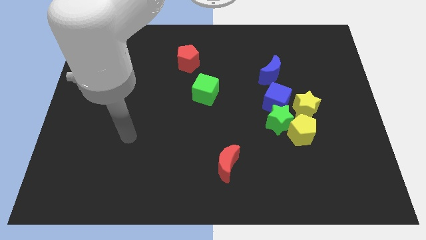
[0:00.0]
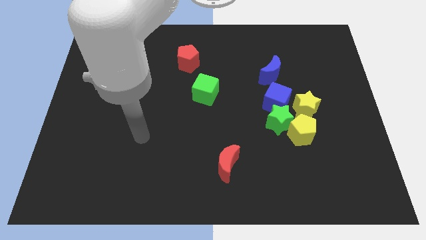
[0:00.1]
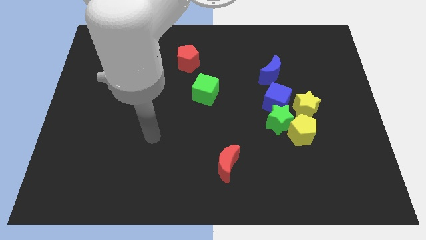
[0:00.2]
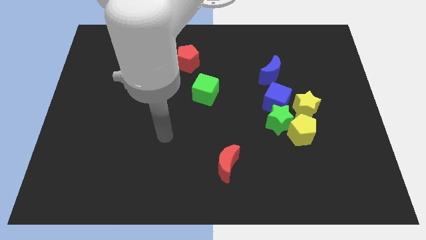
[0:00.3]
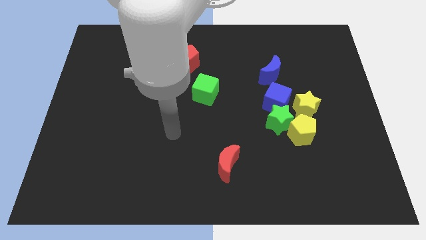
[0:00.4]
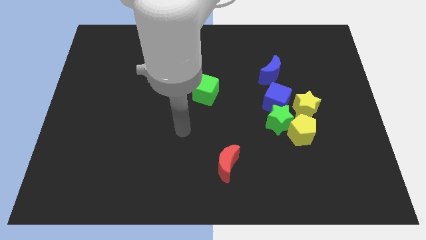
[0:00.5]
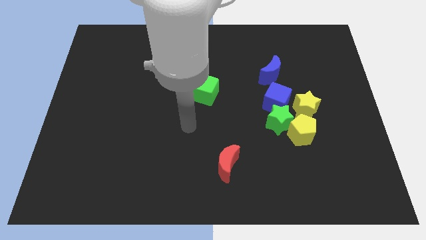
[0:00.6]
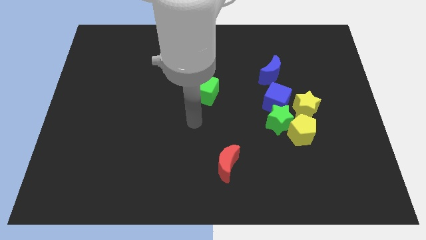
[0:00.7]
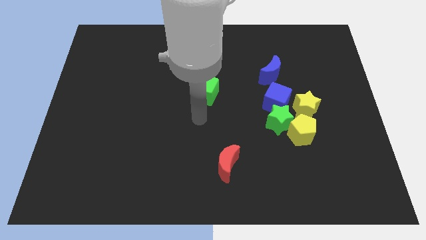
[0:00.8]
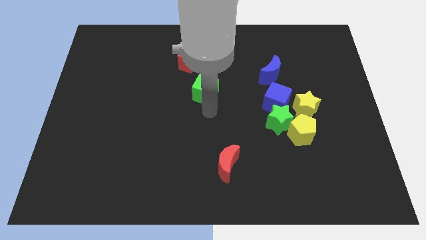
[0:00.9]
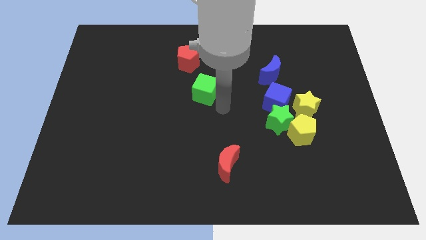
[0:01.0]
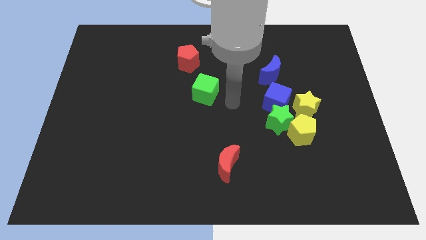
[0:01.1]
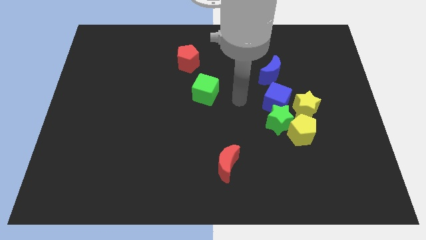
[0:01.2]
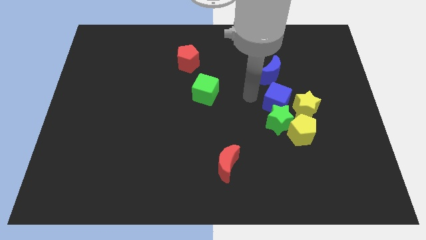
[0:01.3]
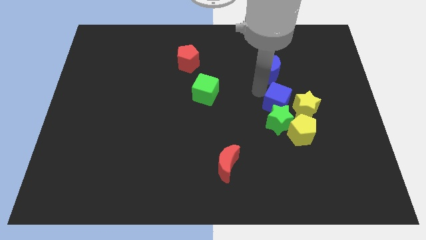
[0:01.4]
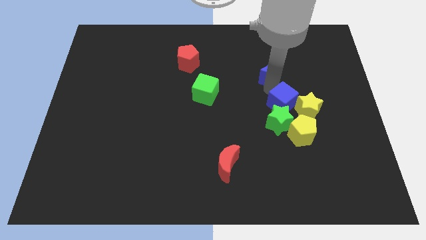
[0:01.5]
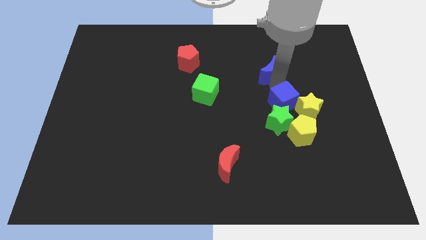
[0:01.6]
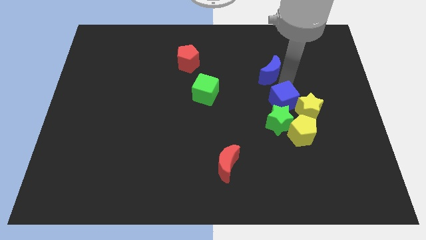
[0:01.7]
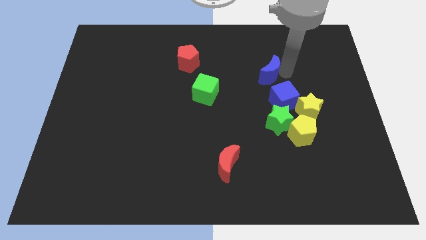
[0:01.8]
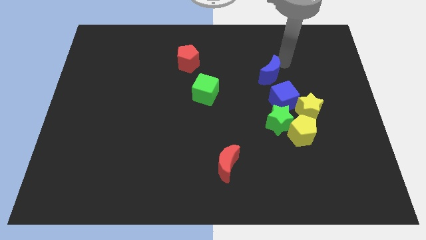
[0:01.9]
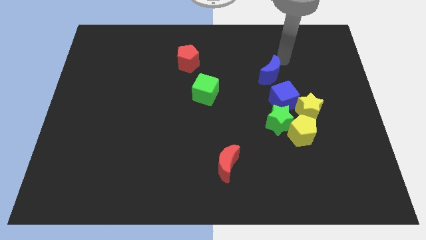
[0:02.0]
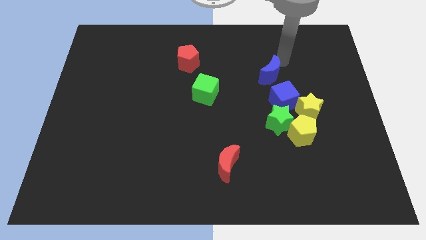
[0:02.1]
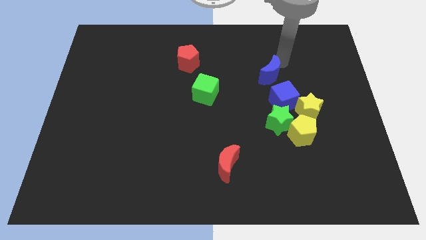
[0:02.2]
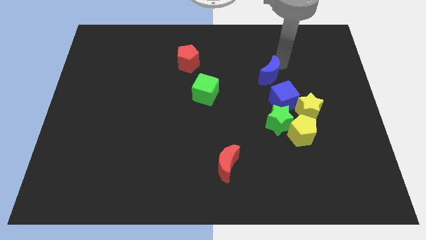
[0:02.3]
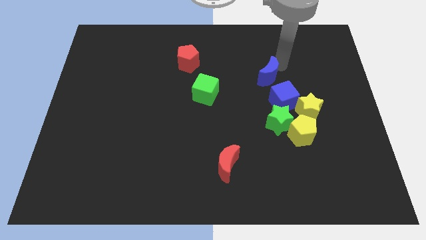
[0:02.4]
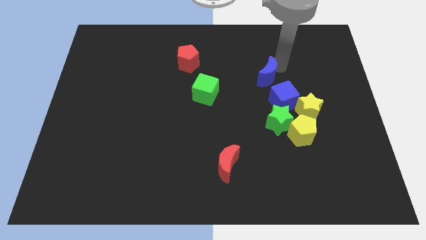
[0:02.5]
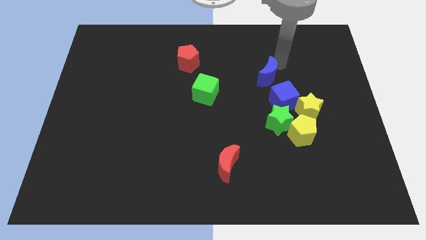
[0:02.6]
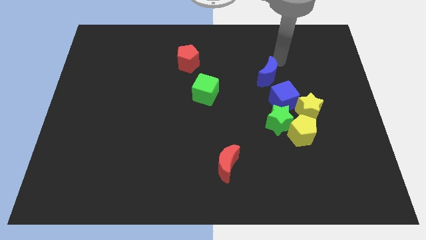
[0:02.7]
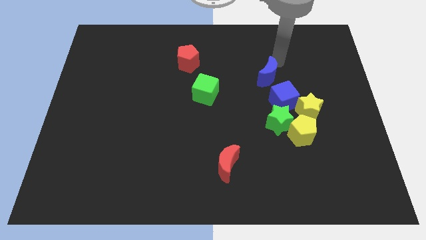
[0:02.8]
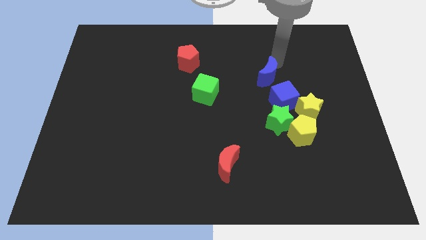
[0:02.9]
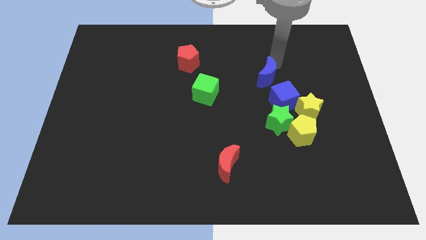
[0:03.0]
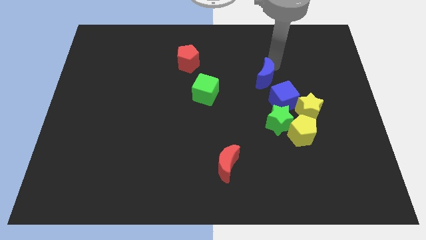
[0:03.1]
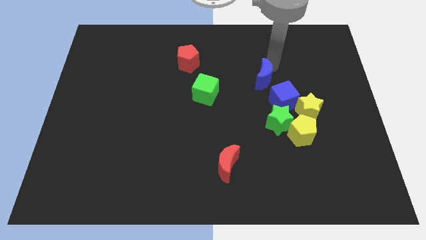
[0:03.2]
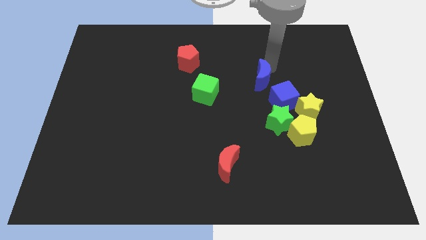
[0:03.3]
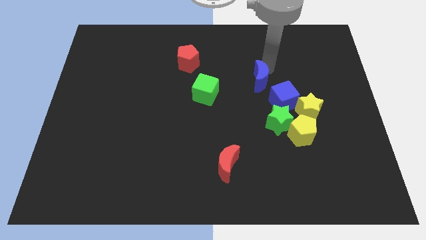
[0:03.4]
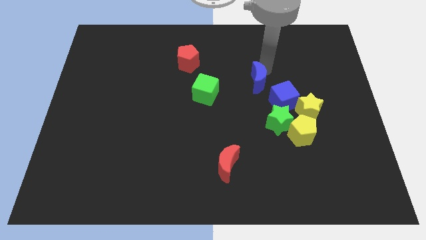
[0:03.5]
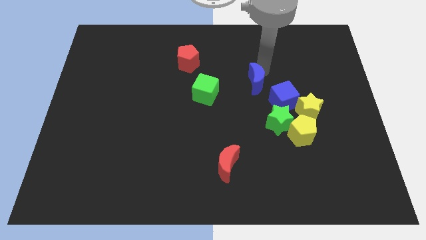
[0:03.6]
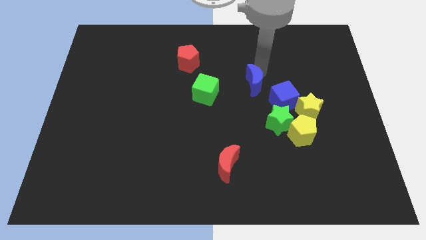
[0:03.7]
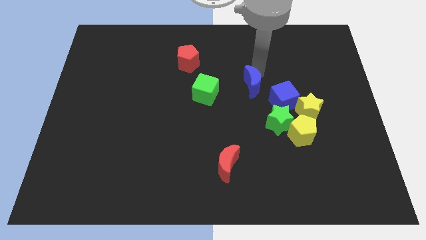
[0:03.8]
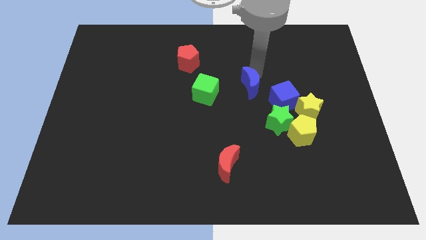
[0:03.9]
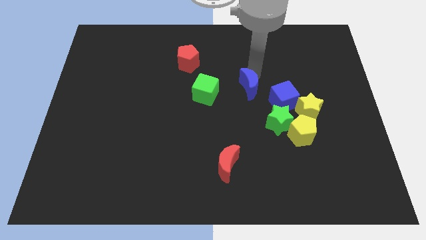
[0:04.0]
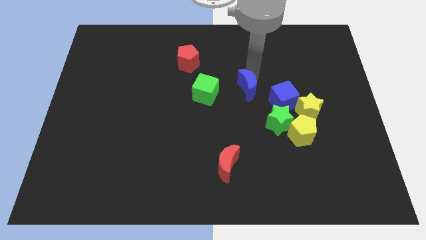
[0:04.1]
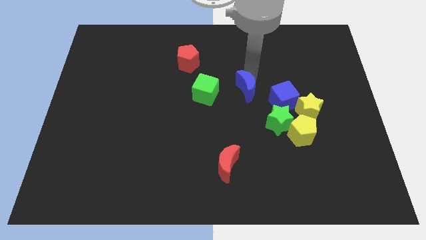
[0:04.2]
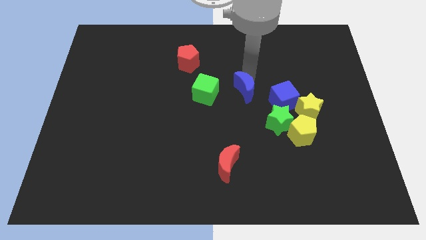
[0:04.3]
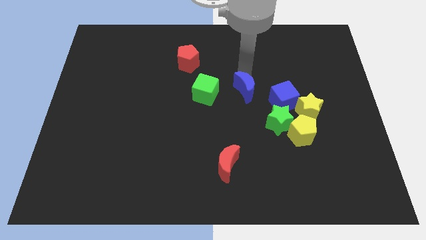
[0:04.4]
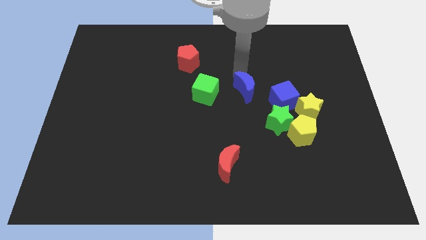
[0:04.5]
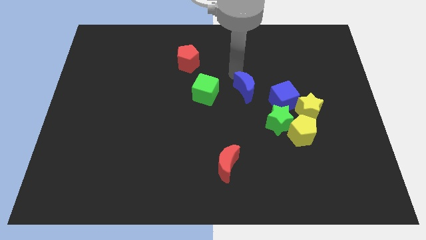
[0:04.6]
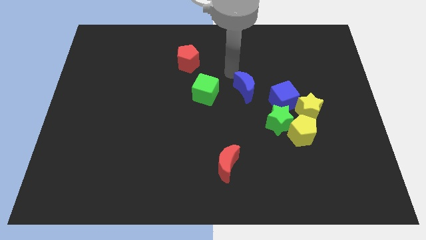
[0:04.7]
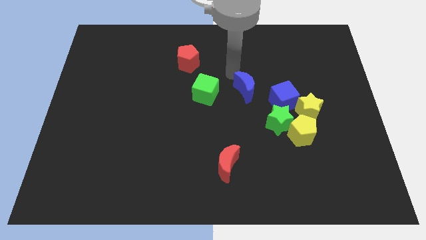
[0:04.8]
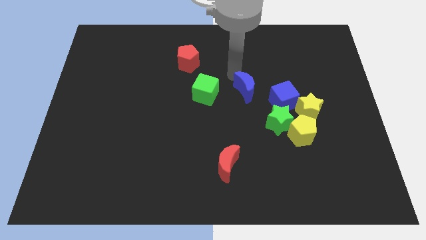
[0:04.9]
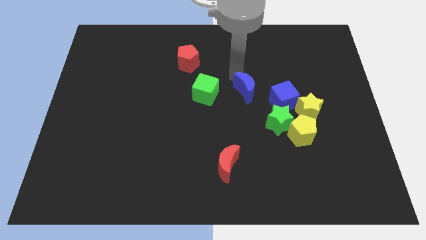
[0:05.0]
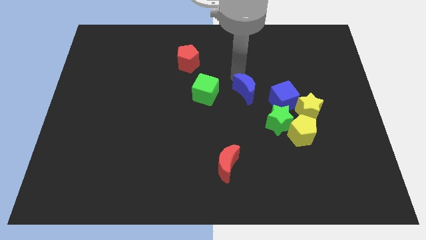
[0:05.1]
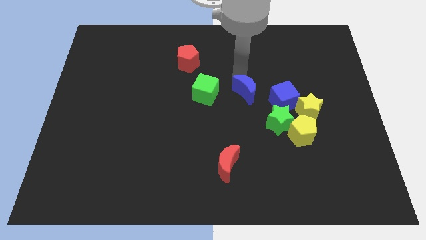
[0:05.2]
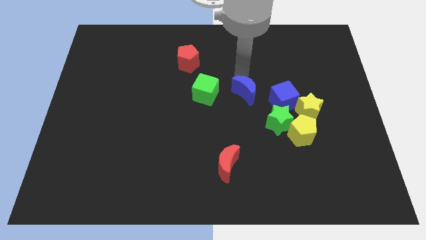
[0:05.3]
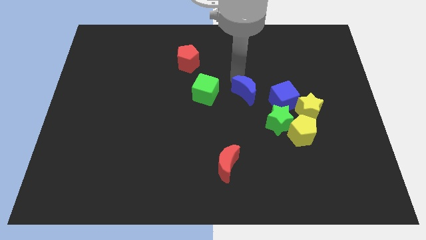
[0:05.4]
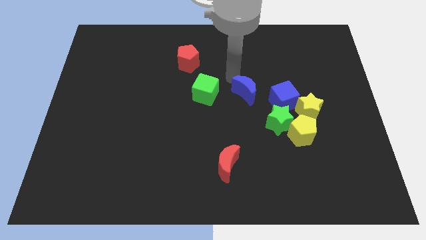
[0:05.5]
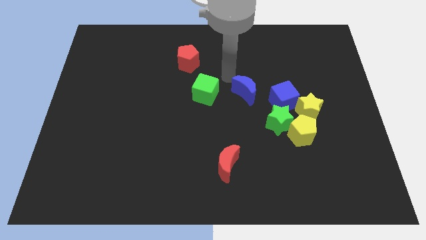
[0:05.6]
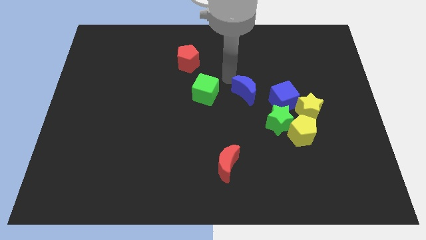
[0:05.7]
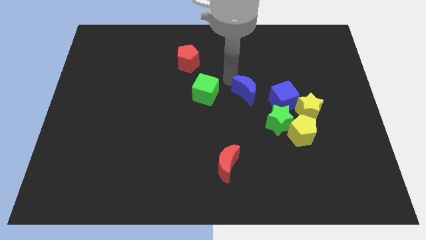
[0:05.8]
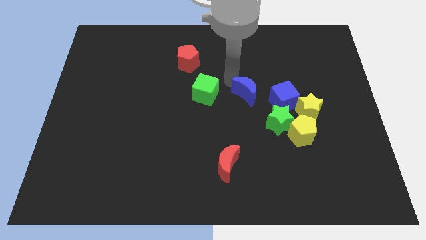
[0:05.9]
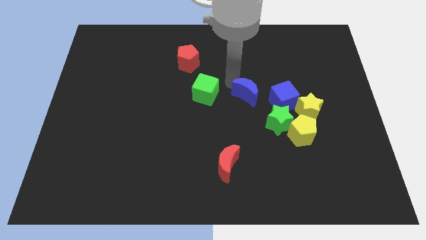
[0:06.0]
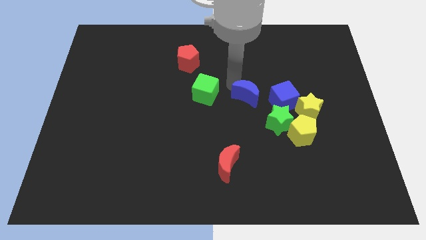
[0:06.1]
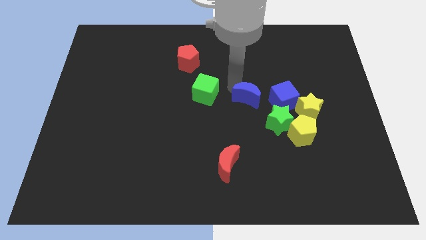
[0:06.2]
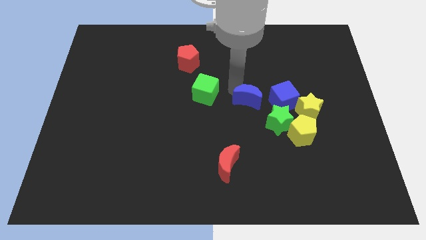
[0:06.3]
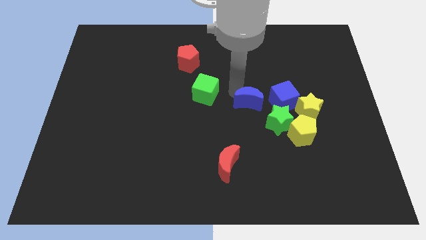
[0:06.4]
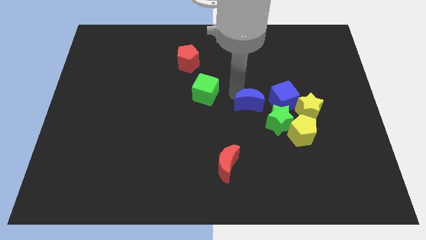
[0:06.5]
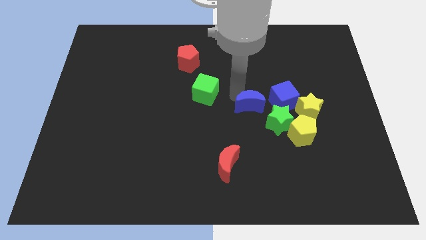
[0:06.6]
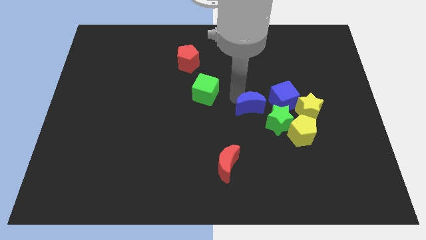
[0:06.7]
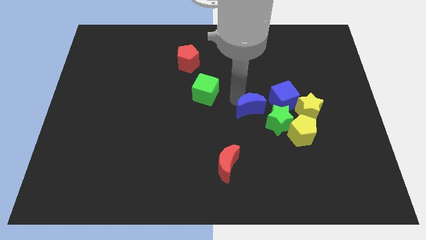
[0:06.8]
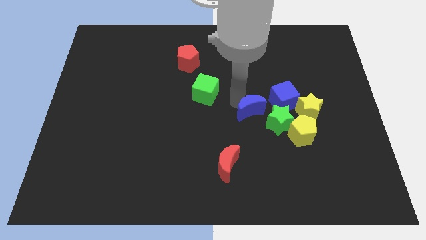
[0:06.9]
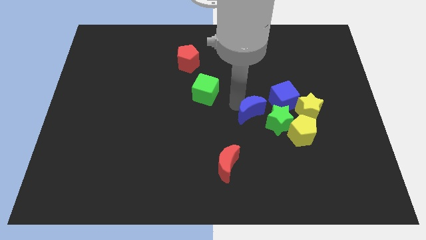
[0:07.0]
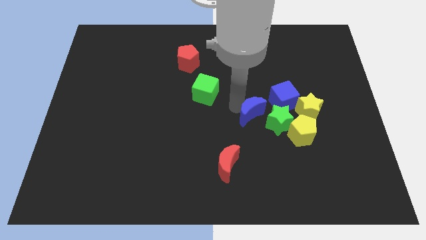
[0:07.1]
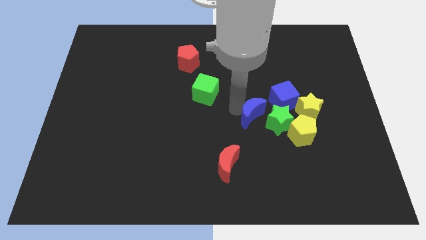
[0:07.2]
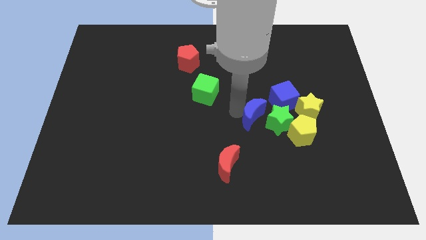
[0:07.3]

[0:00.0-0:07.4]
put the blue moon close to the green star

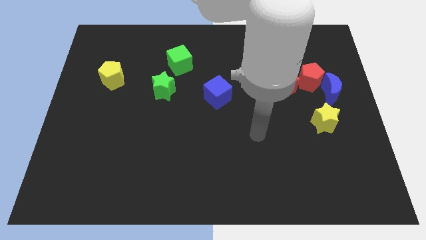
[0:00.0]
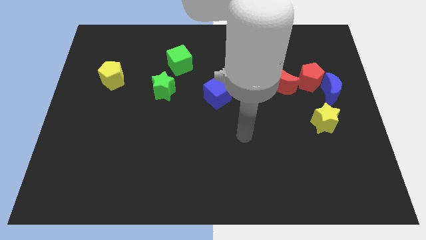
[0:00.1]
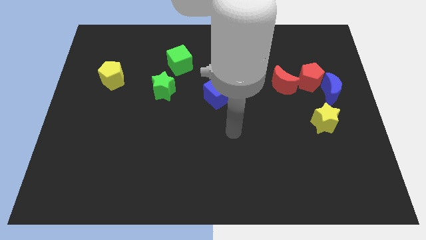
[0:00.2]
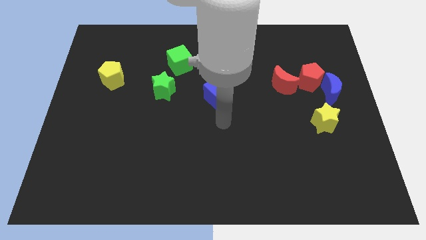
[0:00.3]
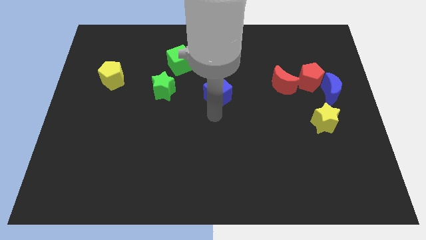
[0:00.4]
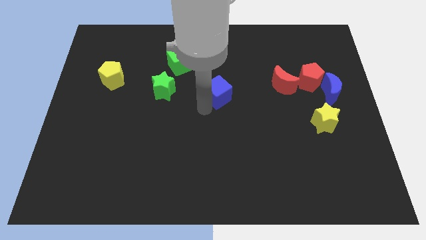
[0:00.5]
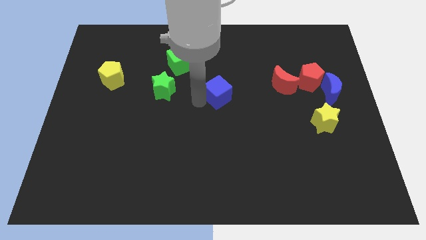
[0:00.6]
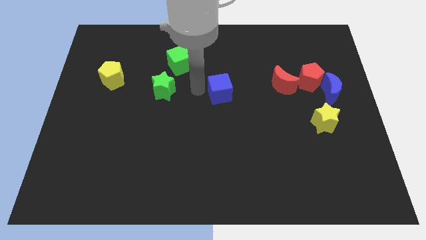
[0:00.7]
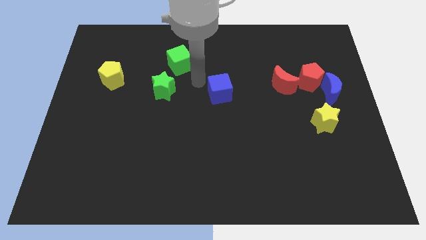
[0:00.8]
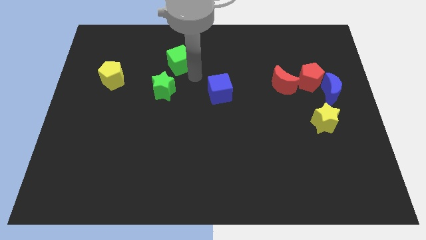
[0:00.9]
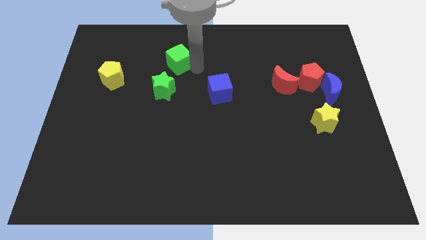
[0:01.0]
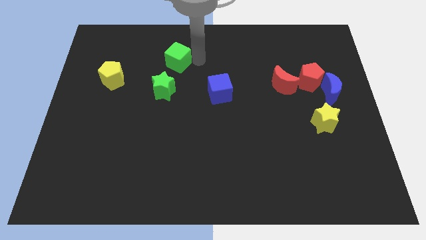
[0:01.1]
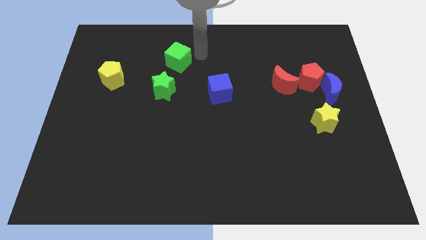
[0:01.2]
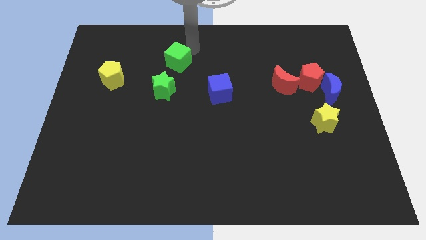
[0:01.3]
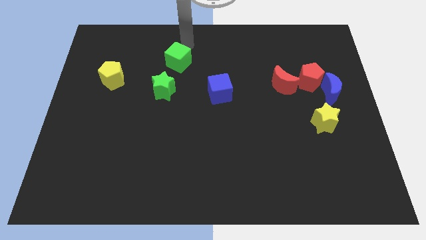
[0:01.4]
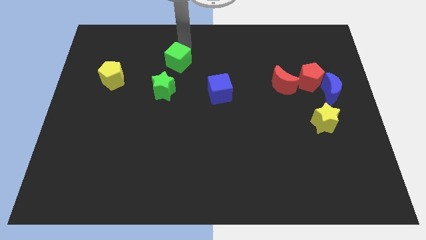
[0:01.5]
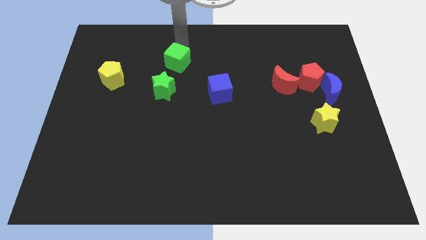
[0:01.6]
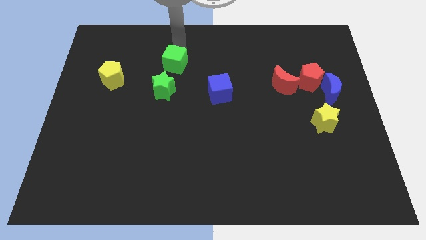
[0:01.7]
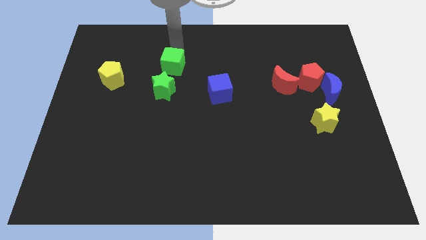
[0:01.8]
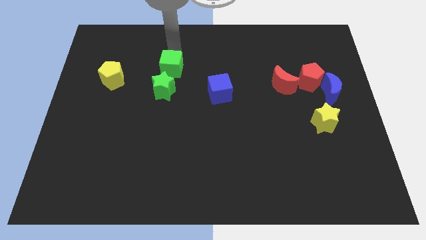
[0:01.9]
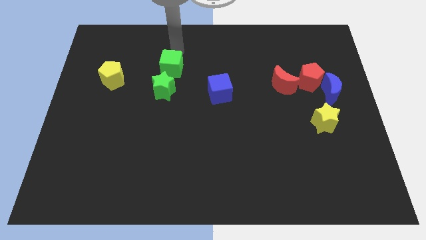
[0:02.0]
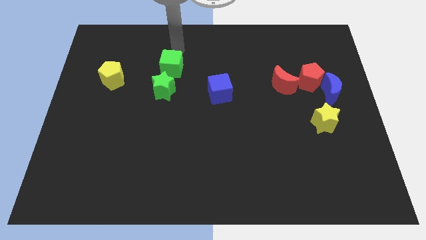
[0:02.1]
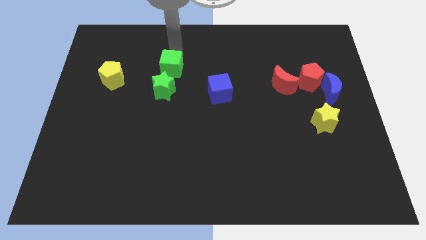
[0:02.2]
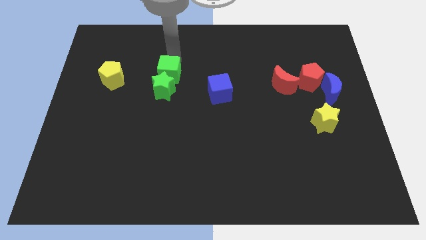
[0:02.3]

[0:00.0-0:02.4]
move the green cube to the green star
